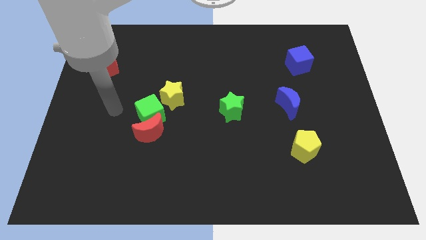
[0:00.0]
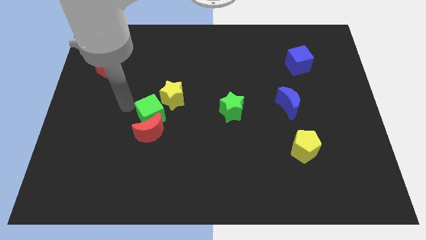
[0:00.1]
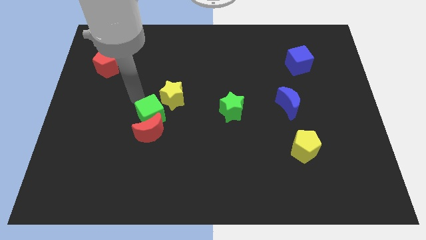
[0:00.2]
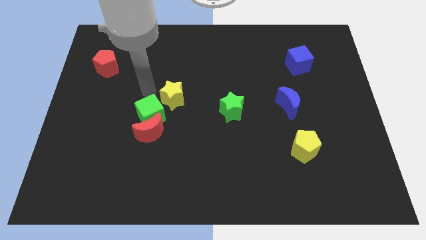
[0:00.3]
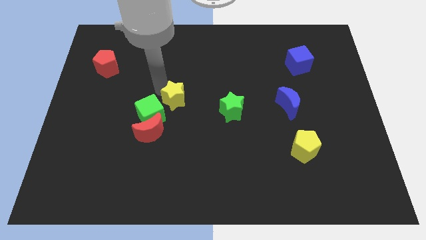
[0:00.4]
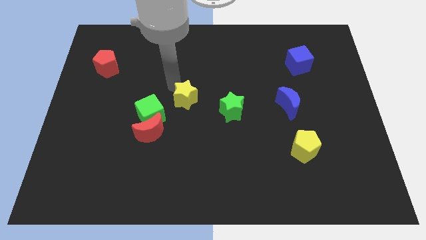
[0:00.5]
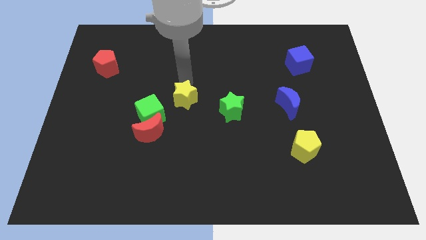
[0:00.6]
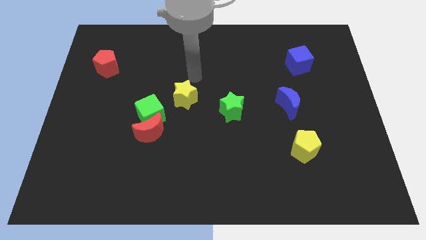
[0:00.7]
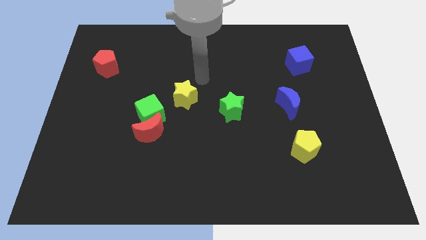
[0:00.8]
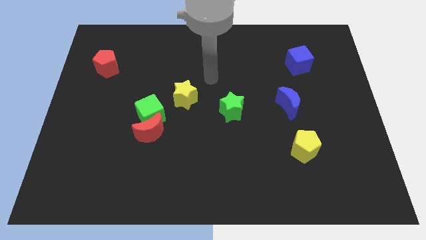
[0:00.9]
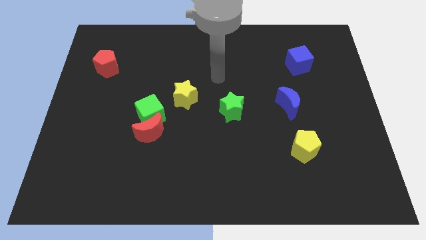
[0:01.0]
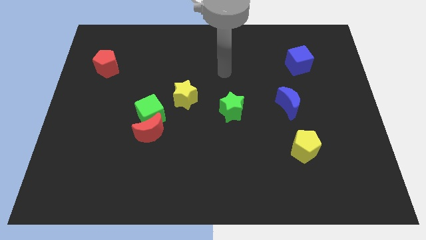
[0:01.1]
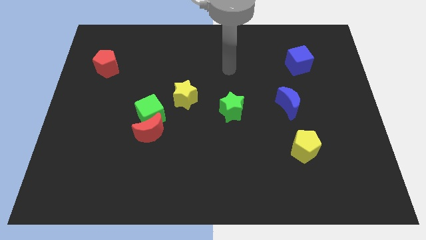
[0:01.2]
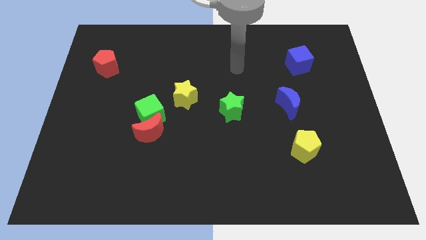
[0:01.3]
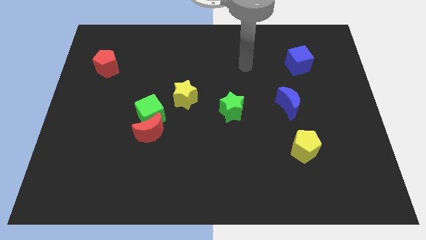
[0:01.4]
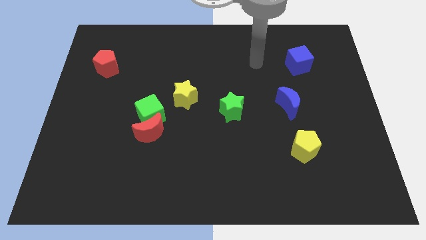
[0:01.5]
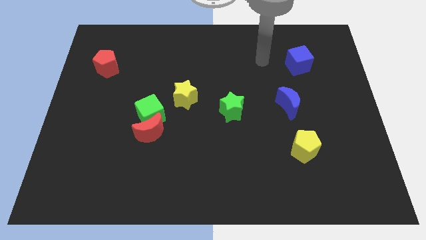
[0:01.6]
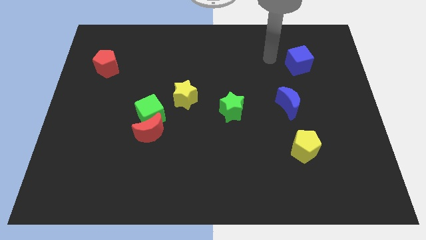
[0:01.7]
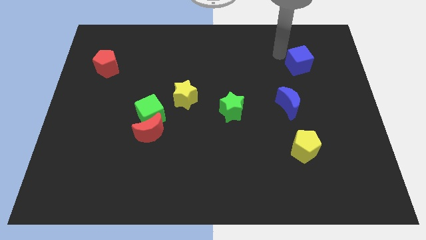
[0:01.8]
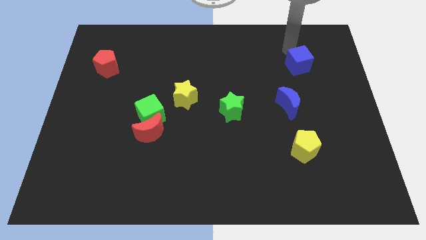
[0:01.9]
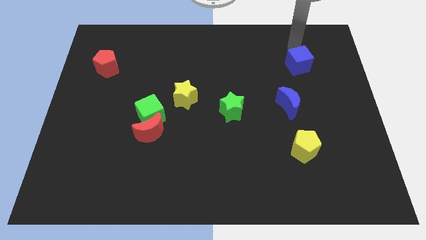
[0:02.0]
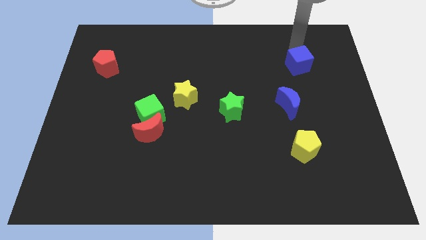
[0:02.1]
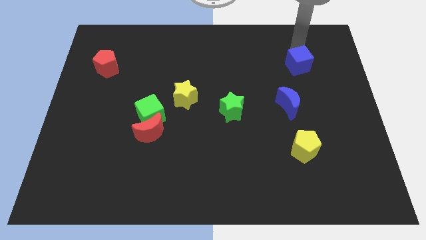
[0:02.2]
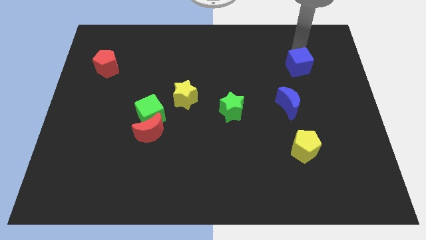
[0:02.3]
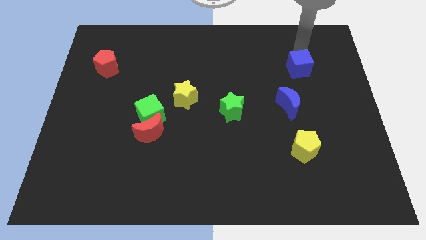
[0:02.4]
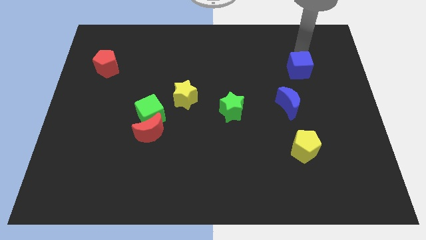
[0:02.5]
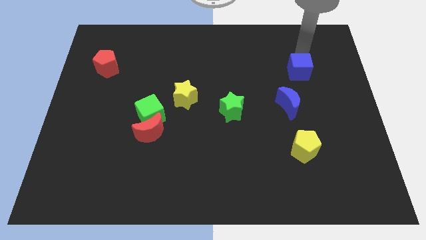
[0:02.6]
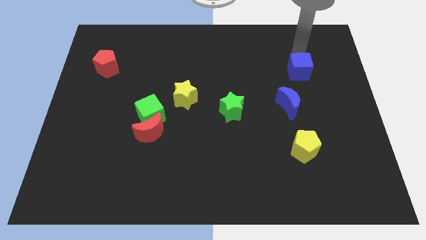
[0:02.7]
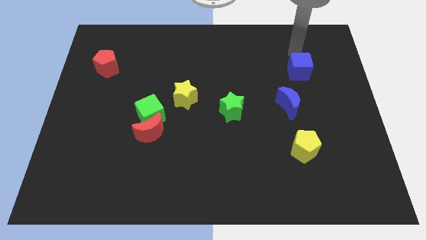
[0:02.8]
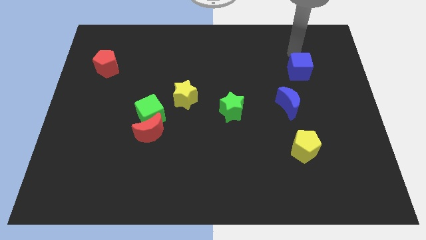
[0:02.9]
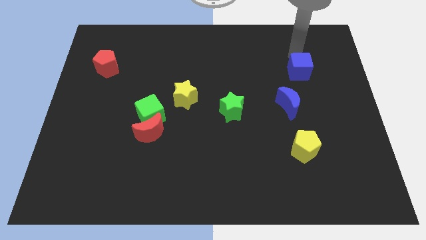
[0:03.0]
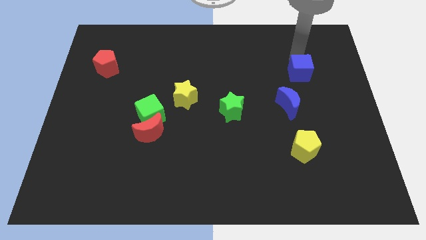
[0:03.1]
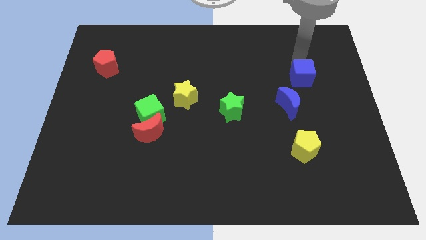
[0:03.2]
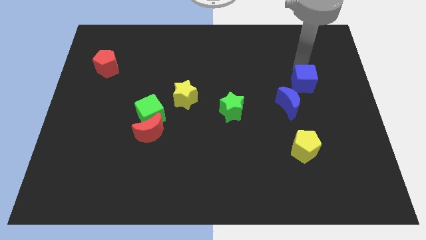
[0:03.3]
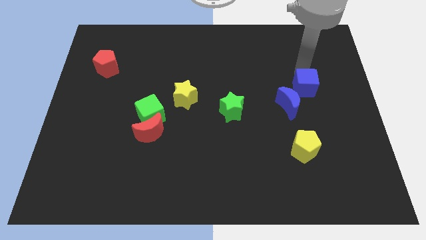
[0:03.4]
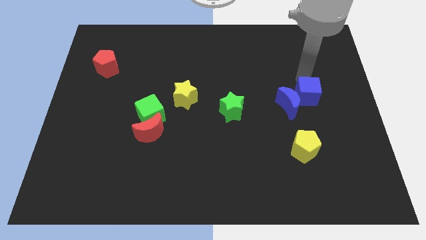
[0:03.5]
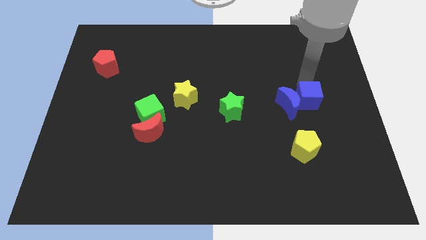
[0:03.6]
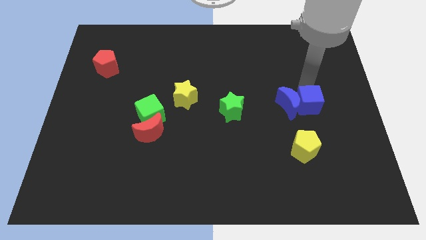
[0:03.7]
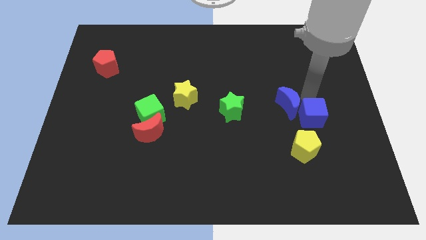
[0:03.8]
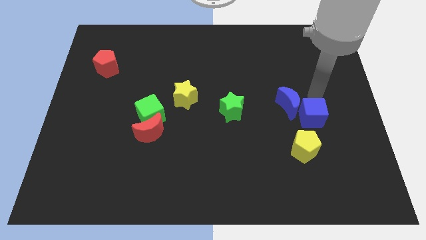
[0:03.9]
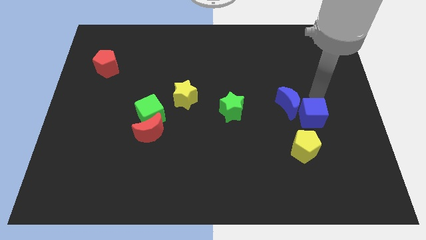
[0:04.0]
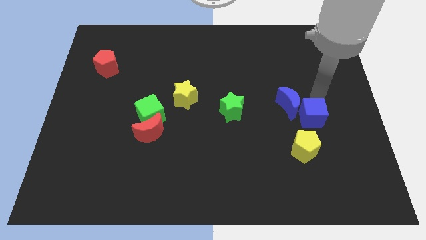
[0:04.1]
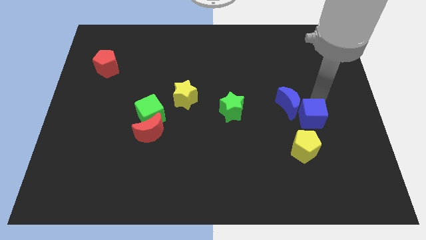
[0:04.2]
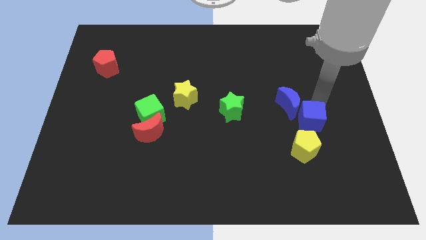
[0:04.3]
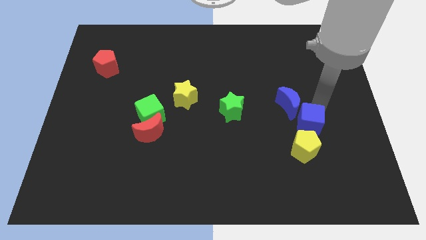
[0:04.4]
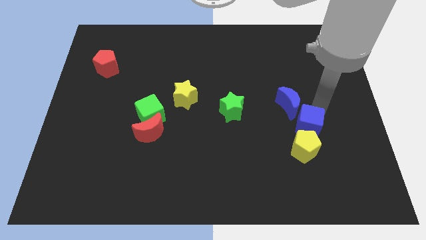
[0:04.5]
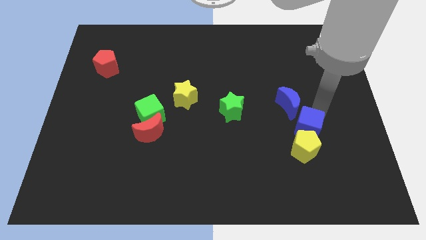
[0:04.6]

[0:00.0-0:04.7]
put the blue cube next to the yellow pentagon

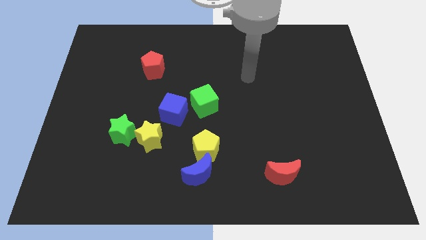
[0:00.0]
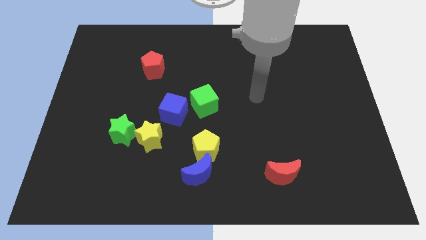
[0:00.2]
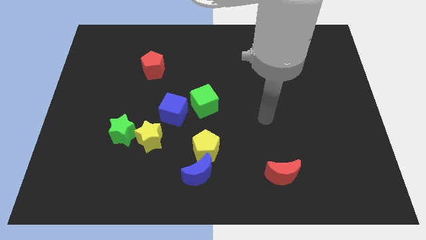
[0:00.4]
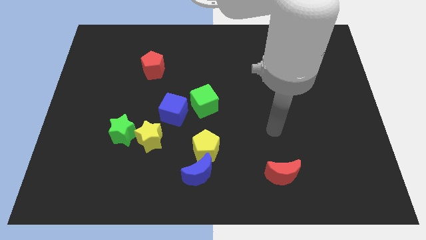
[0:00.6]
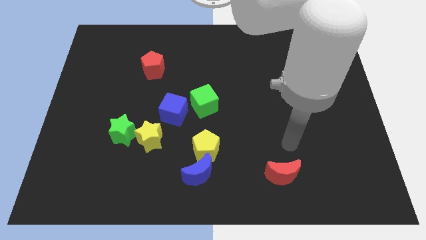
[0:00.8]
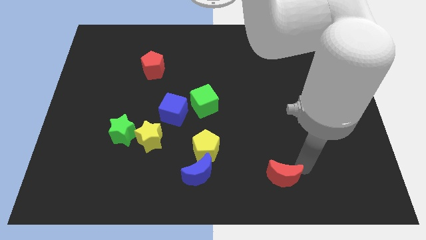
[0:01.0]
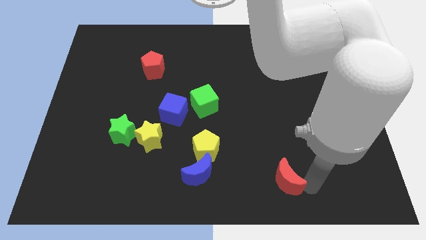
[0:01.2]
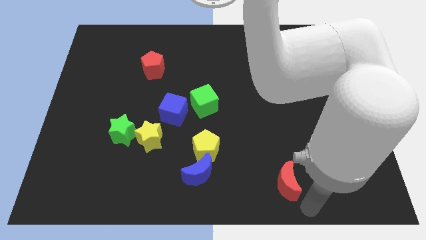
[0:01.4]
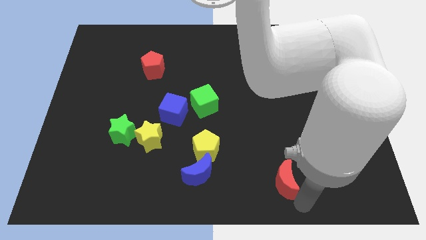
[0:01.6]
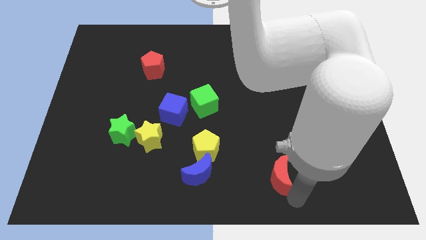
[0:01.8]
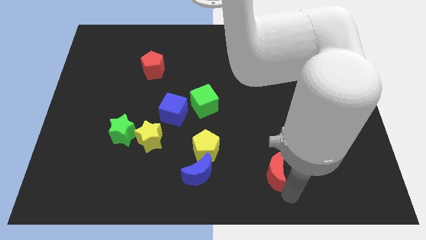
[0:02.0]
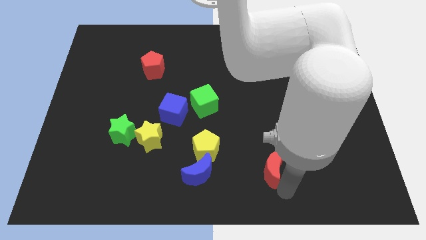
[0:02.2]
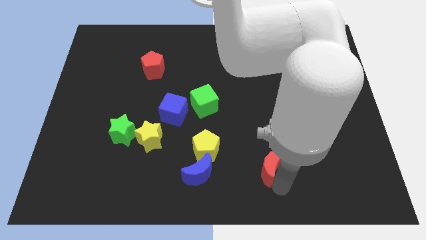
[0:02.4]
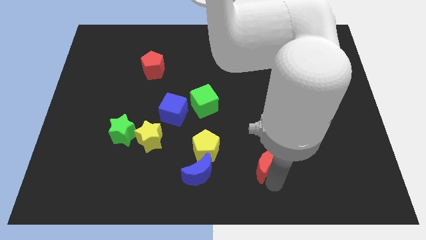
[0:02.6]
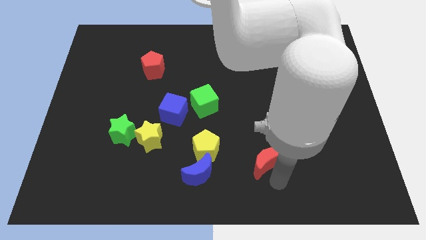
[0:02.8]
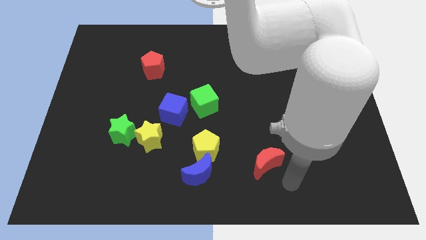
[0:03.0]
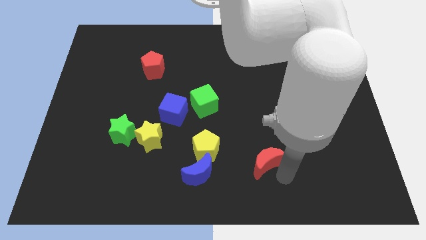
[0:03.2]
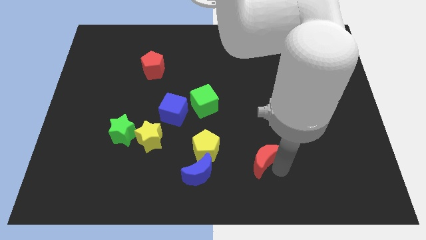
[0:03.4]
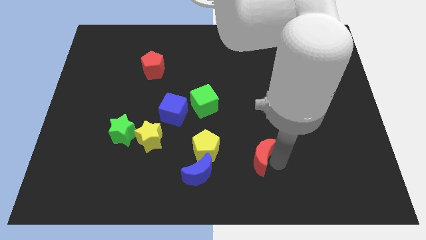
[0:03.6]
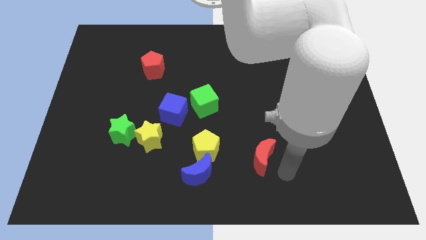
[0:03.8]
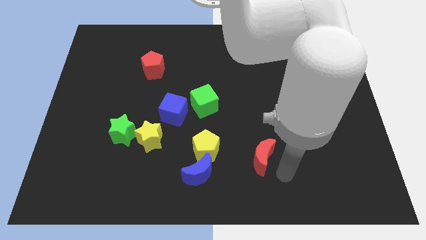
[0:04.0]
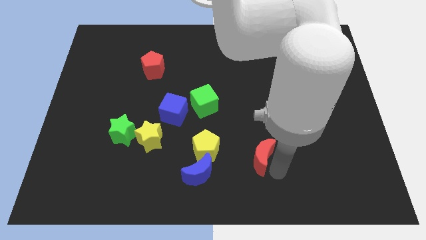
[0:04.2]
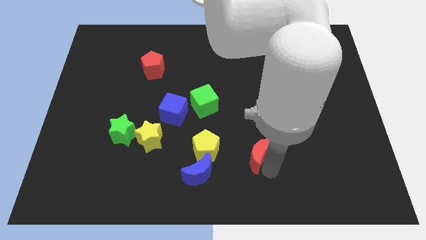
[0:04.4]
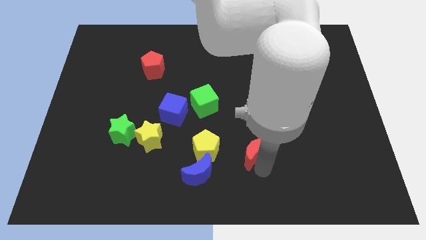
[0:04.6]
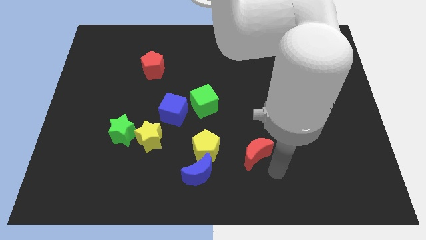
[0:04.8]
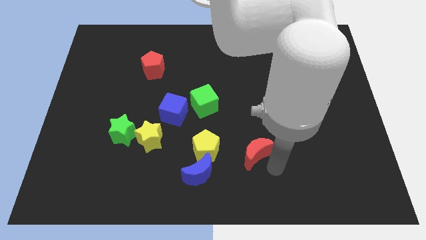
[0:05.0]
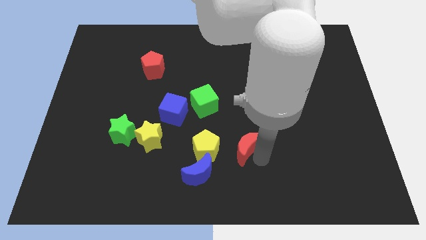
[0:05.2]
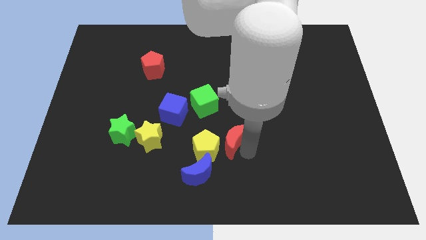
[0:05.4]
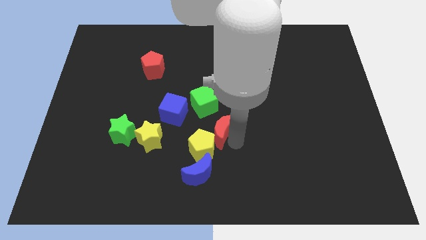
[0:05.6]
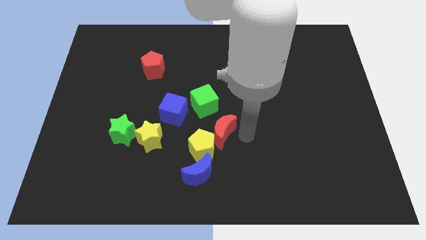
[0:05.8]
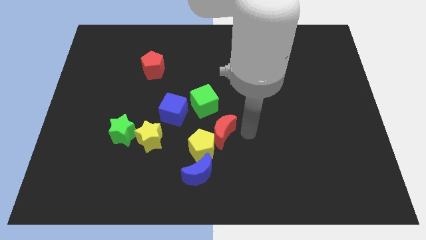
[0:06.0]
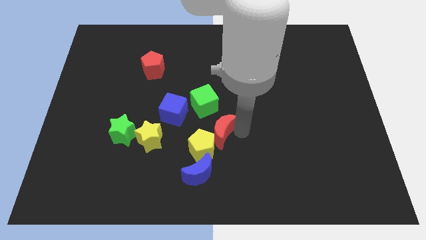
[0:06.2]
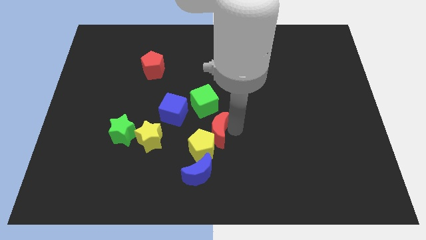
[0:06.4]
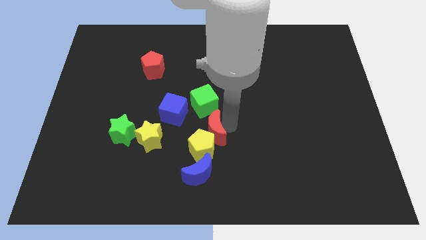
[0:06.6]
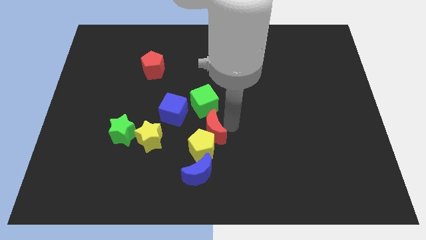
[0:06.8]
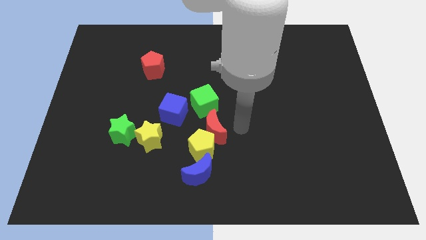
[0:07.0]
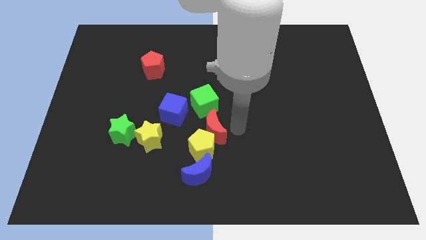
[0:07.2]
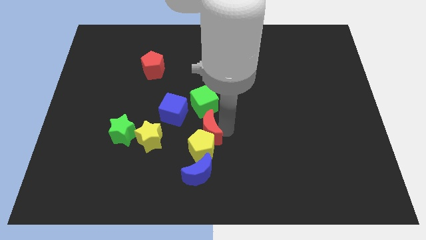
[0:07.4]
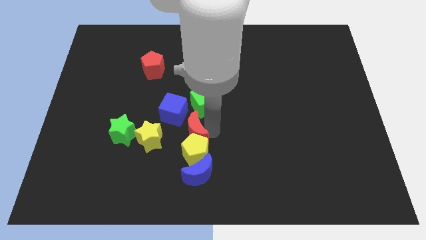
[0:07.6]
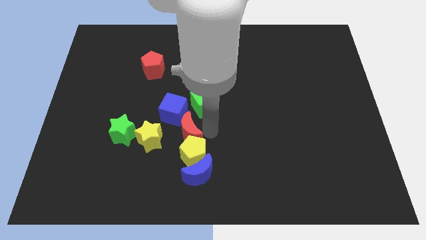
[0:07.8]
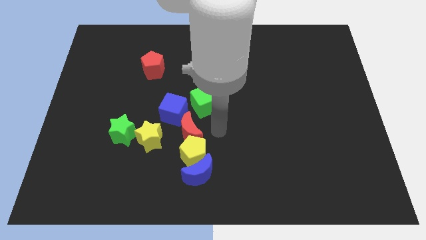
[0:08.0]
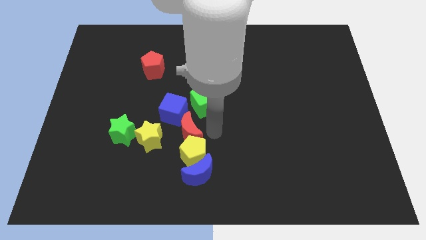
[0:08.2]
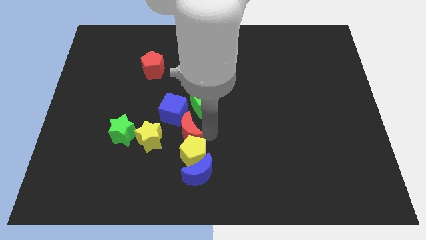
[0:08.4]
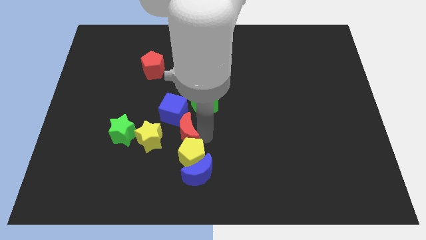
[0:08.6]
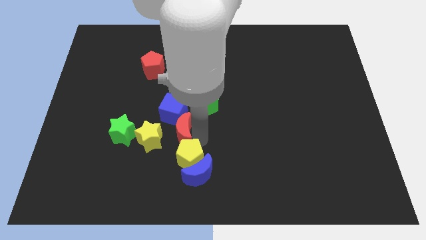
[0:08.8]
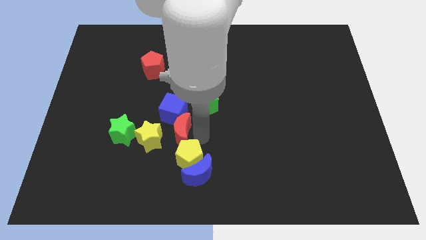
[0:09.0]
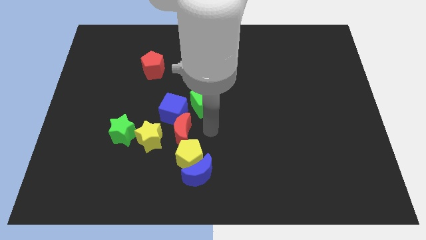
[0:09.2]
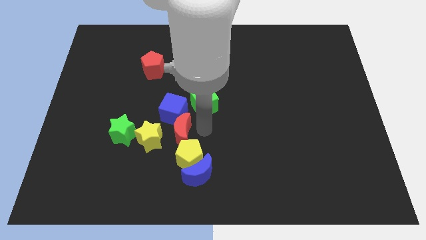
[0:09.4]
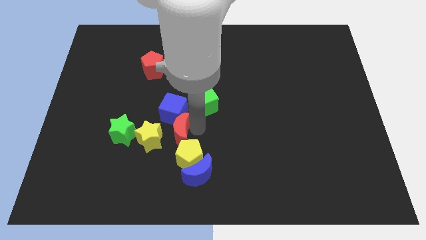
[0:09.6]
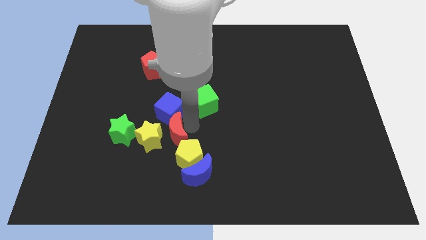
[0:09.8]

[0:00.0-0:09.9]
put the red moon close to the yellow star
